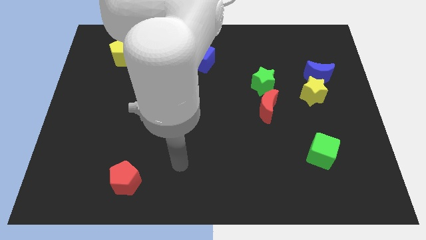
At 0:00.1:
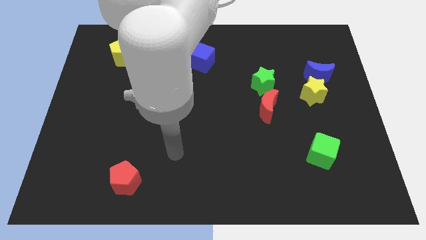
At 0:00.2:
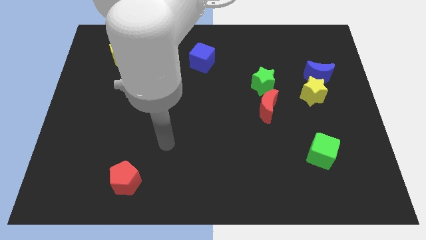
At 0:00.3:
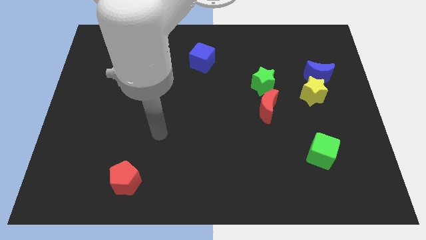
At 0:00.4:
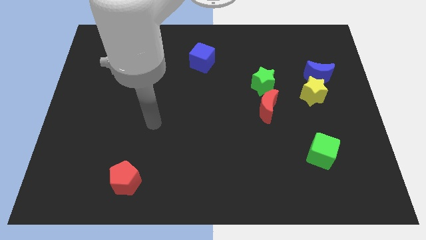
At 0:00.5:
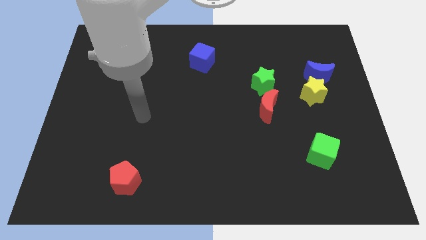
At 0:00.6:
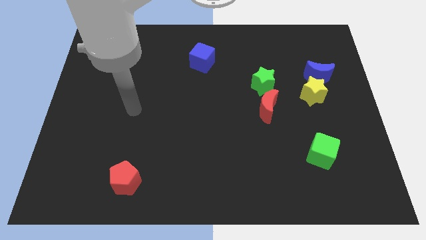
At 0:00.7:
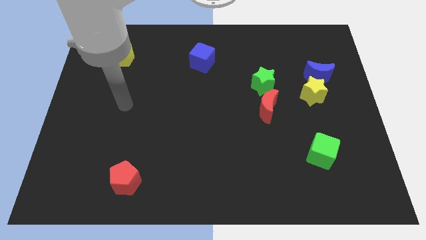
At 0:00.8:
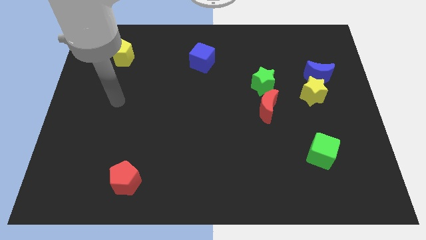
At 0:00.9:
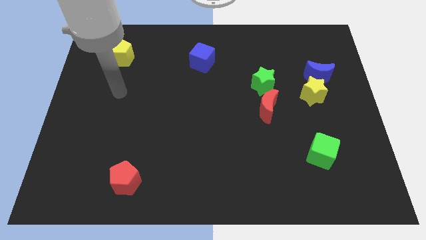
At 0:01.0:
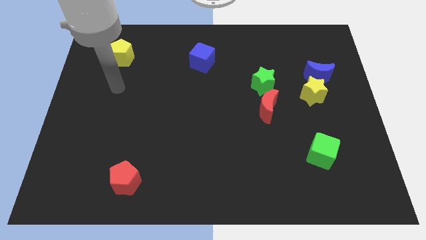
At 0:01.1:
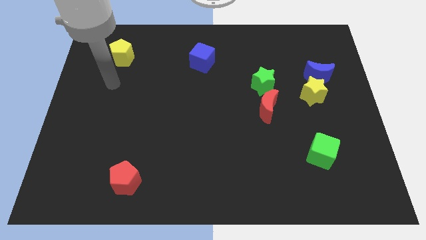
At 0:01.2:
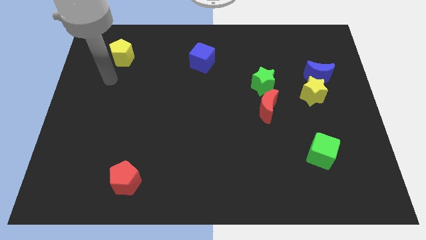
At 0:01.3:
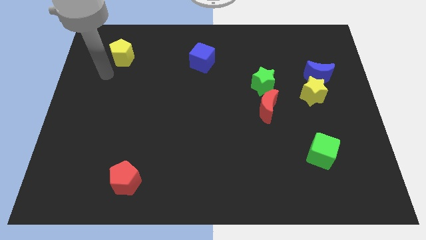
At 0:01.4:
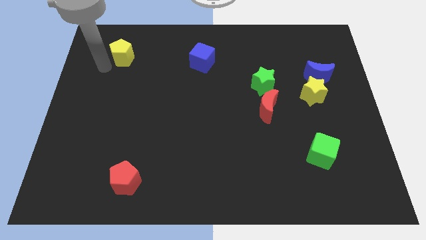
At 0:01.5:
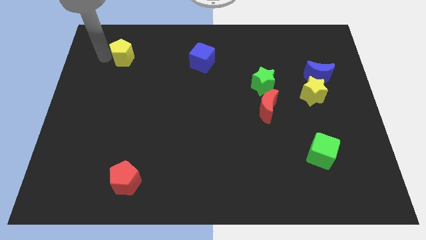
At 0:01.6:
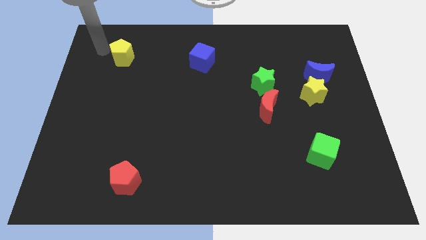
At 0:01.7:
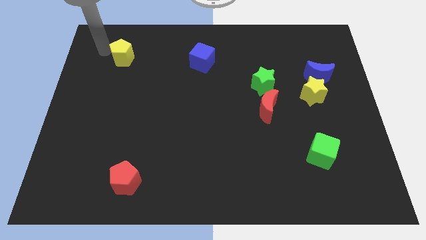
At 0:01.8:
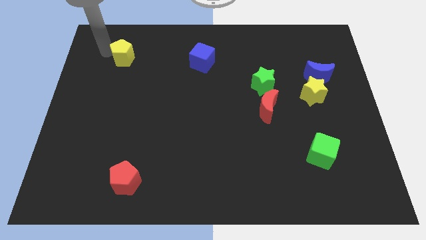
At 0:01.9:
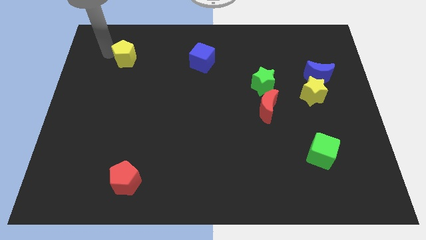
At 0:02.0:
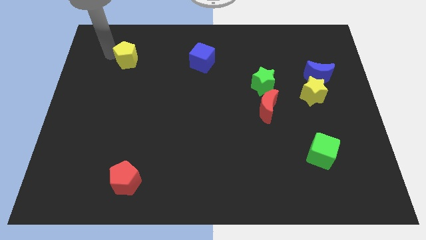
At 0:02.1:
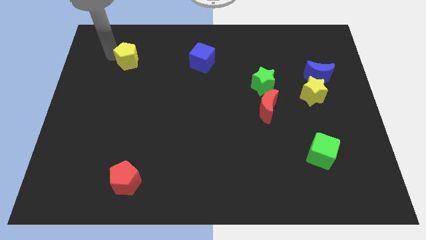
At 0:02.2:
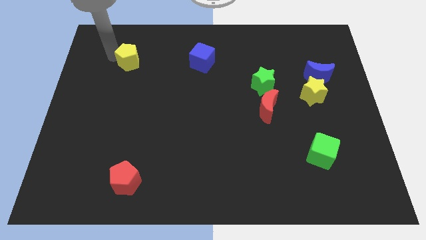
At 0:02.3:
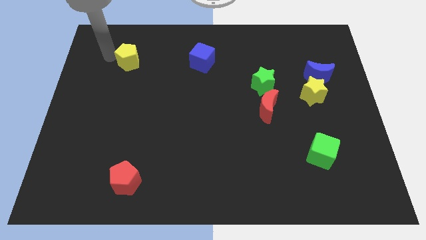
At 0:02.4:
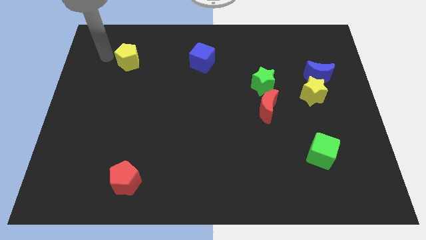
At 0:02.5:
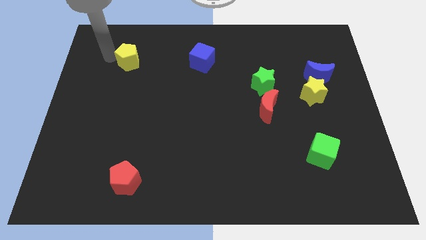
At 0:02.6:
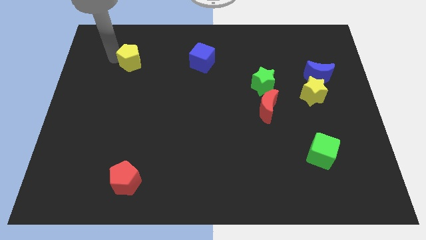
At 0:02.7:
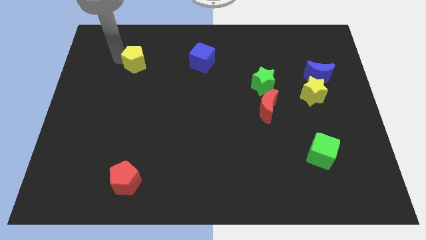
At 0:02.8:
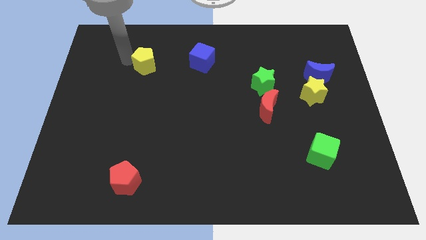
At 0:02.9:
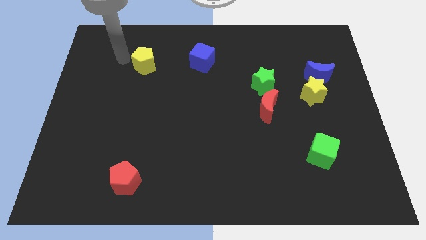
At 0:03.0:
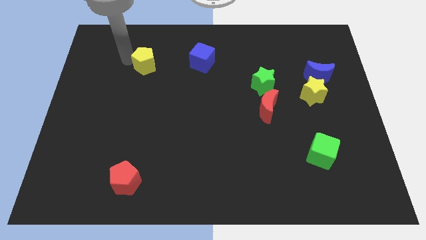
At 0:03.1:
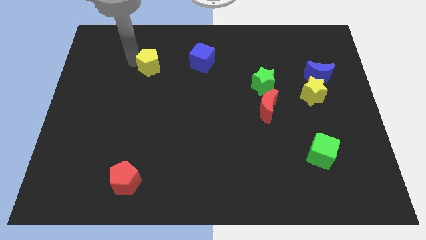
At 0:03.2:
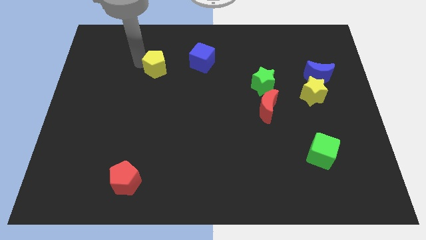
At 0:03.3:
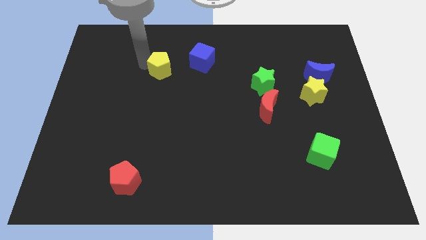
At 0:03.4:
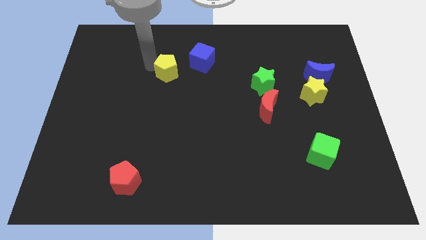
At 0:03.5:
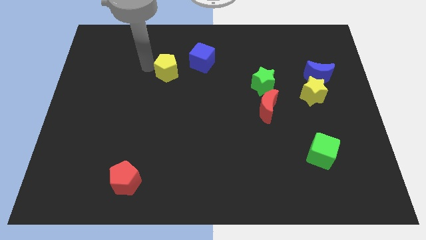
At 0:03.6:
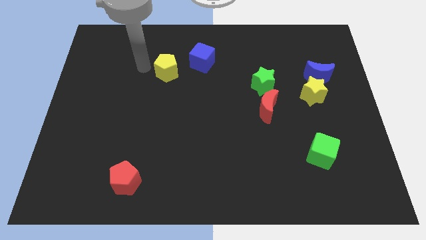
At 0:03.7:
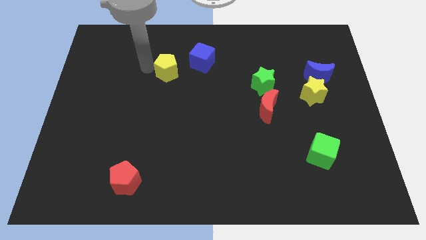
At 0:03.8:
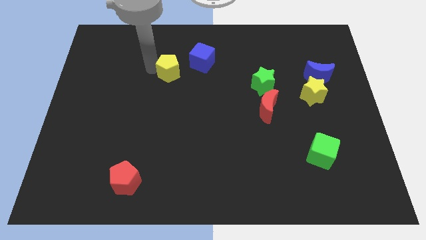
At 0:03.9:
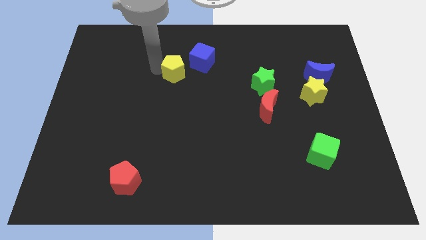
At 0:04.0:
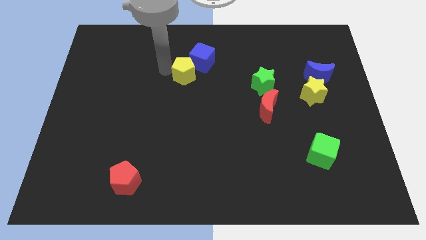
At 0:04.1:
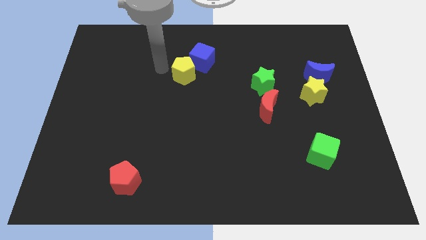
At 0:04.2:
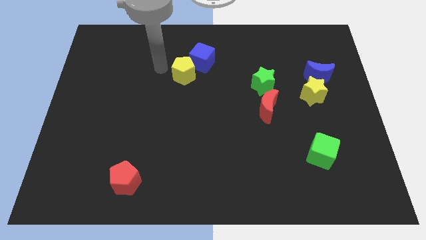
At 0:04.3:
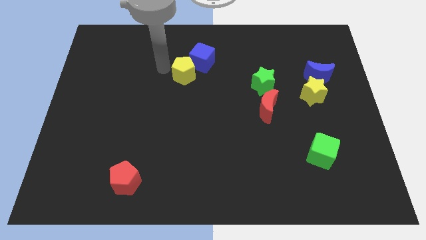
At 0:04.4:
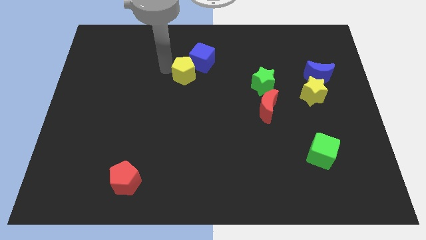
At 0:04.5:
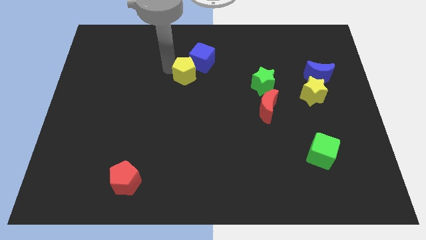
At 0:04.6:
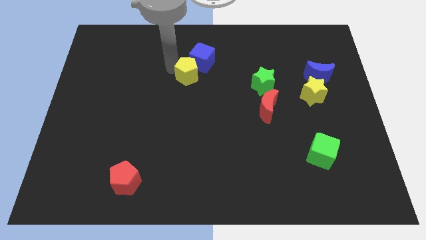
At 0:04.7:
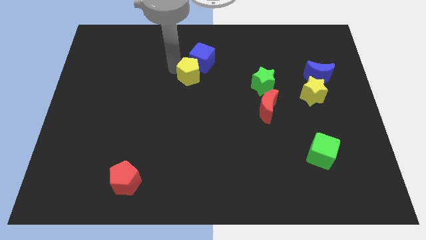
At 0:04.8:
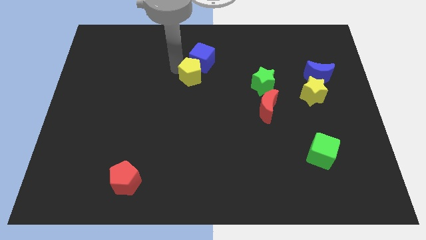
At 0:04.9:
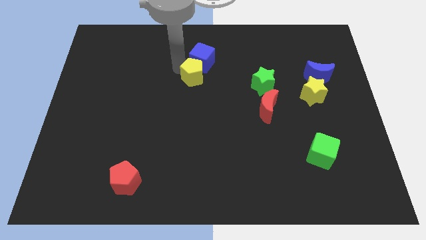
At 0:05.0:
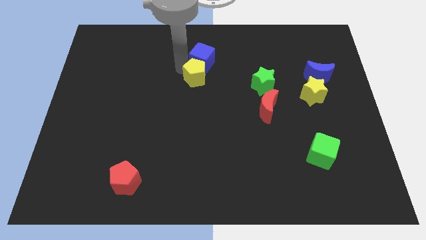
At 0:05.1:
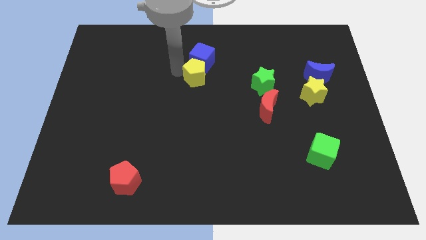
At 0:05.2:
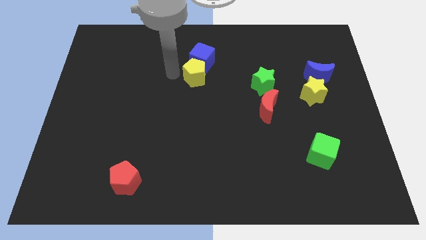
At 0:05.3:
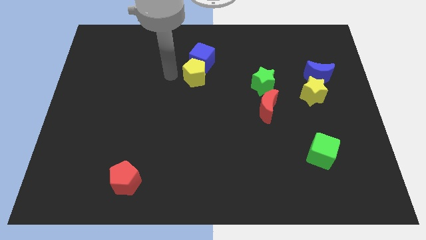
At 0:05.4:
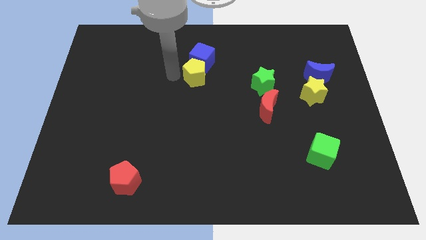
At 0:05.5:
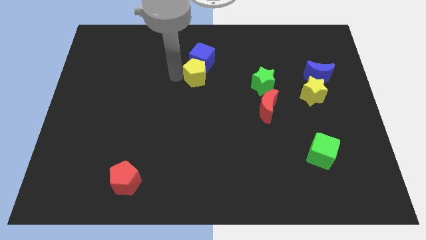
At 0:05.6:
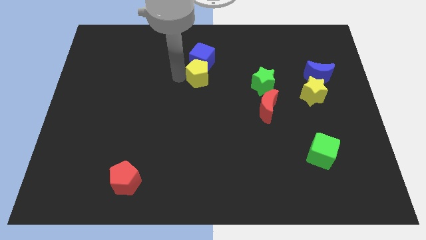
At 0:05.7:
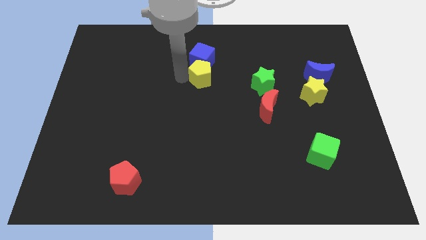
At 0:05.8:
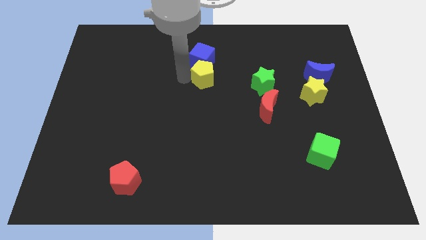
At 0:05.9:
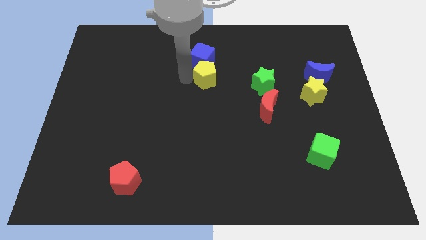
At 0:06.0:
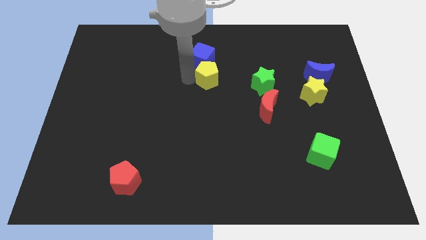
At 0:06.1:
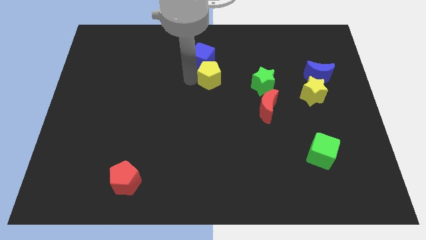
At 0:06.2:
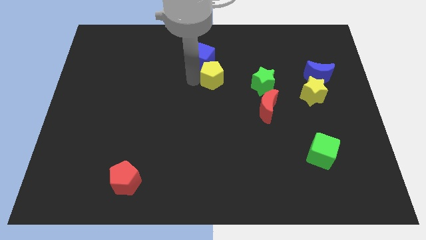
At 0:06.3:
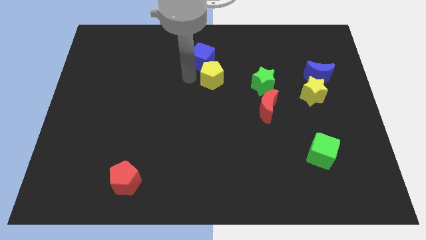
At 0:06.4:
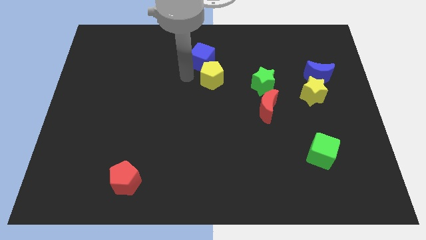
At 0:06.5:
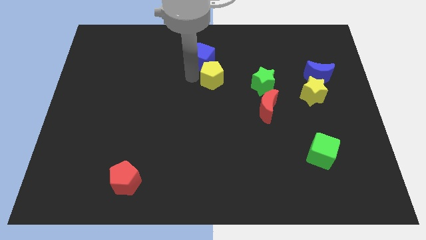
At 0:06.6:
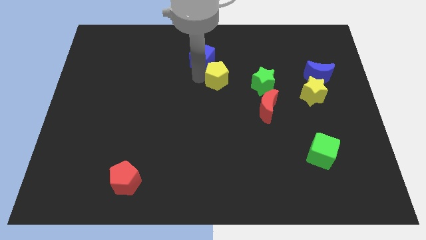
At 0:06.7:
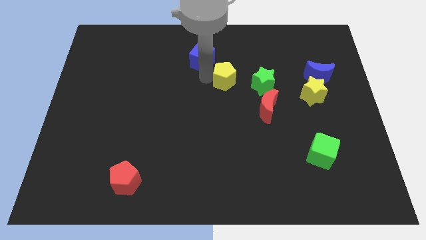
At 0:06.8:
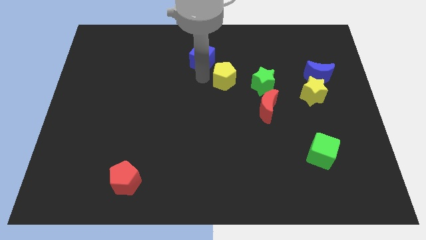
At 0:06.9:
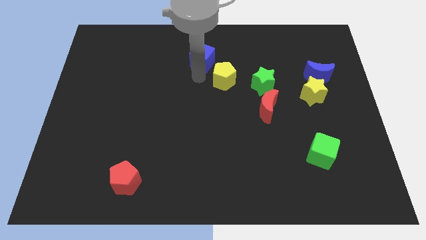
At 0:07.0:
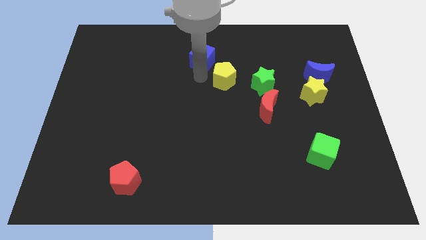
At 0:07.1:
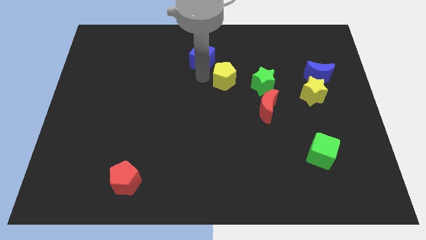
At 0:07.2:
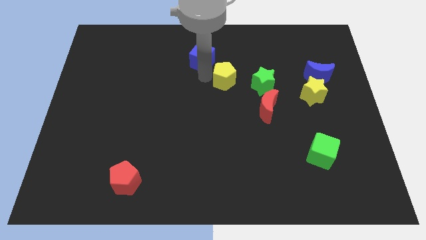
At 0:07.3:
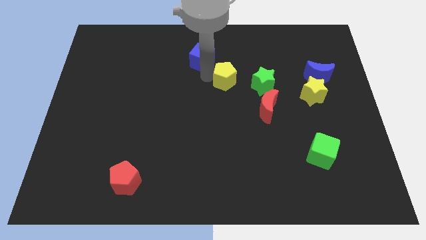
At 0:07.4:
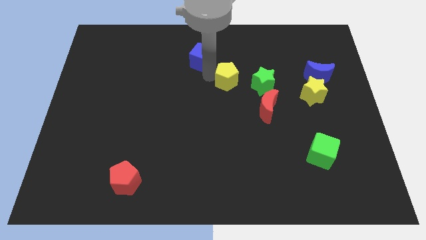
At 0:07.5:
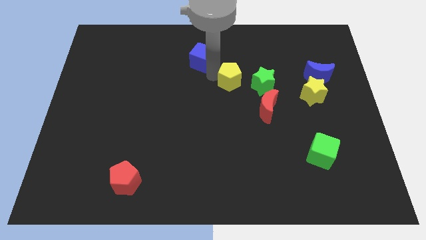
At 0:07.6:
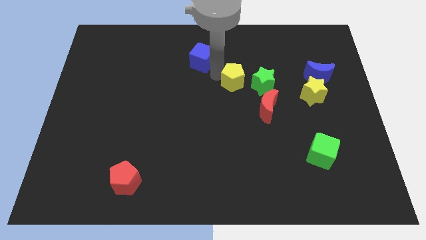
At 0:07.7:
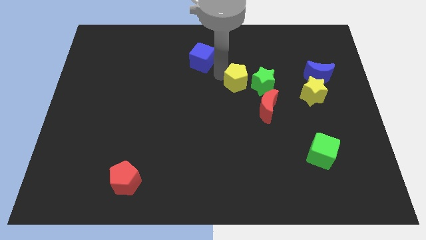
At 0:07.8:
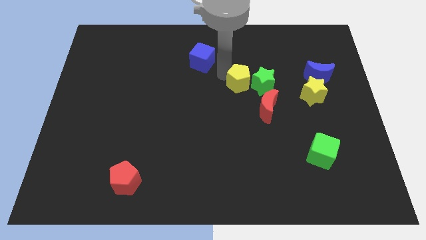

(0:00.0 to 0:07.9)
move the yellow pentagon to the green star
